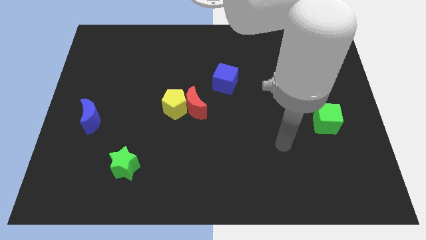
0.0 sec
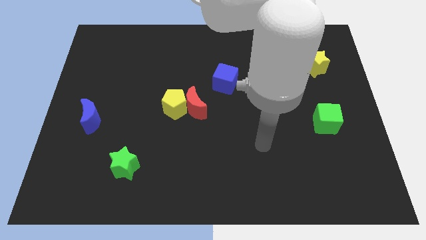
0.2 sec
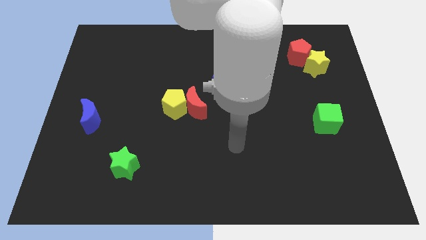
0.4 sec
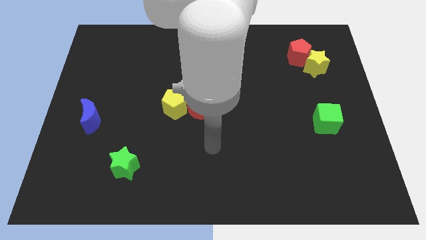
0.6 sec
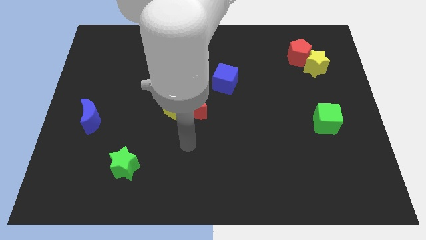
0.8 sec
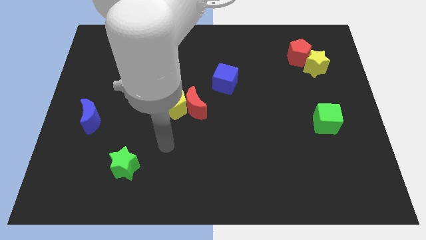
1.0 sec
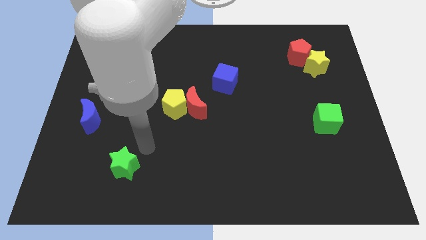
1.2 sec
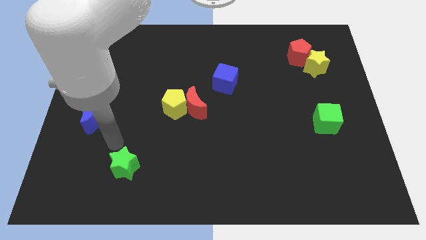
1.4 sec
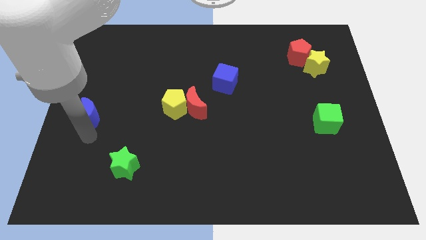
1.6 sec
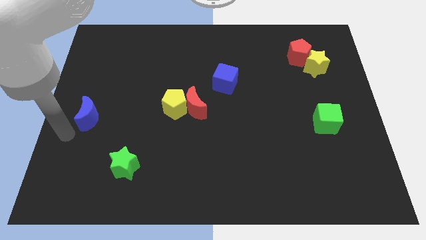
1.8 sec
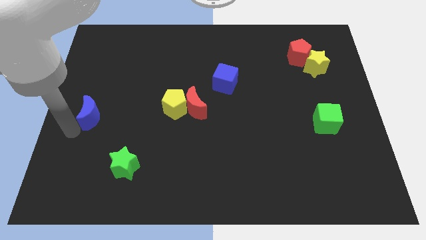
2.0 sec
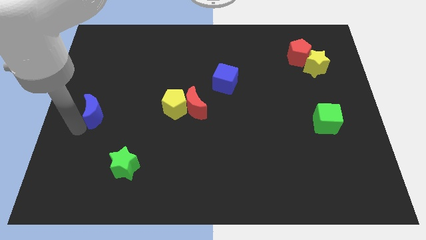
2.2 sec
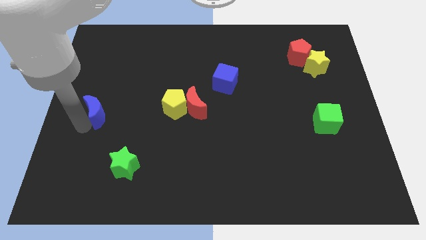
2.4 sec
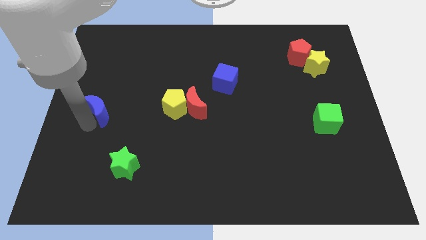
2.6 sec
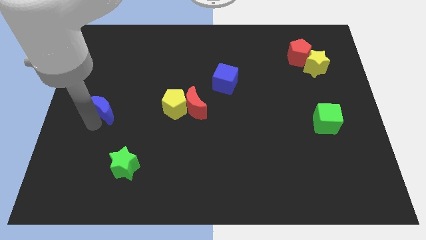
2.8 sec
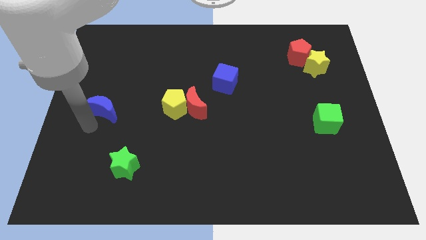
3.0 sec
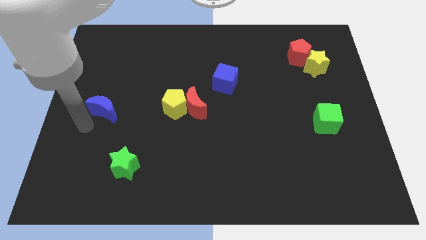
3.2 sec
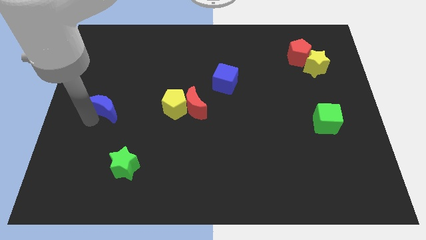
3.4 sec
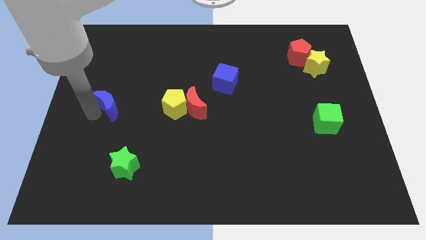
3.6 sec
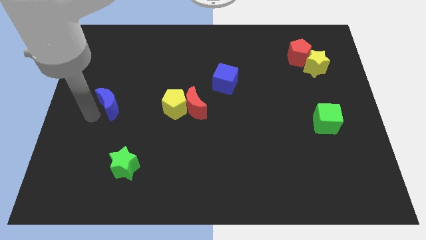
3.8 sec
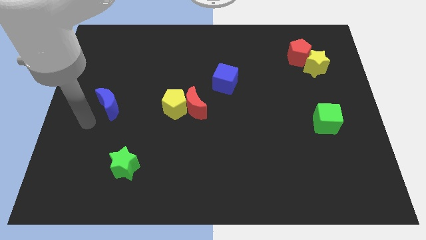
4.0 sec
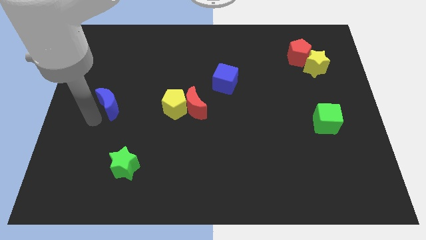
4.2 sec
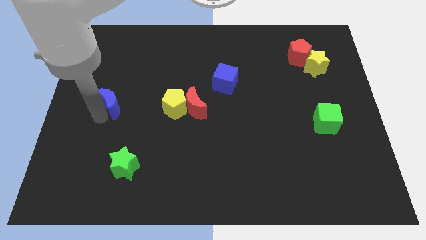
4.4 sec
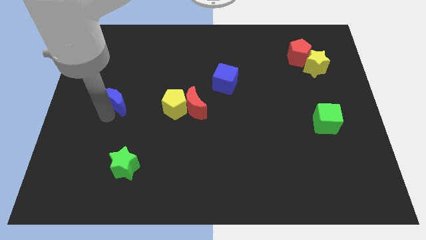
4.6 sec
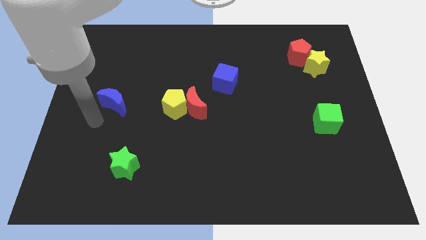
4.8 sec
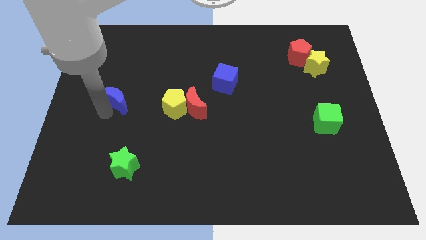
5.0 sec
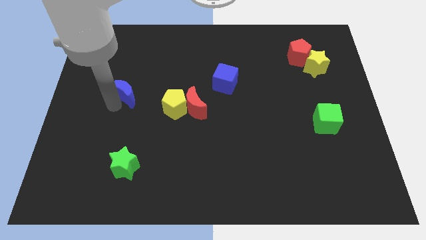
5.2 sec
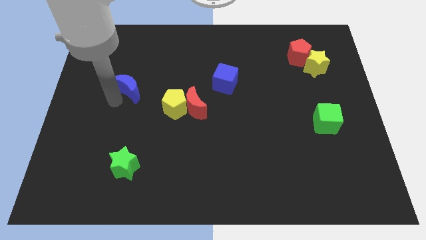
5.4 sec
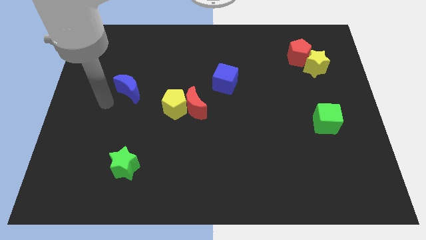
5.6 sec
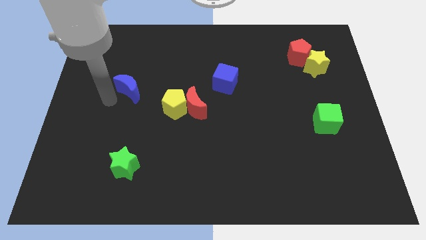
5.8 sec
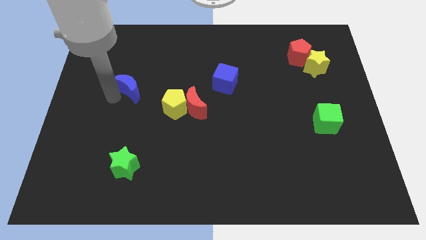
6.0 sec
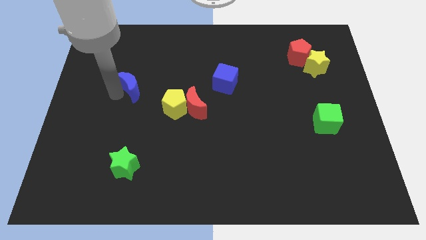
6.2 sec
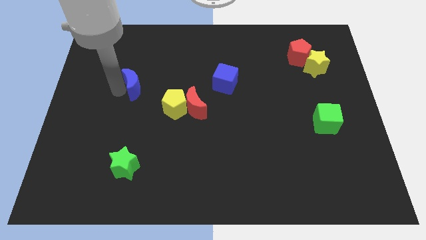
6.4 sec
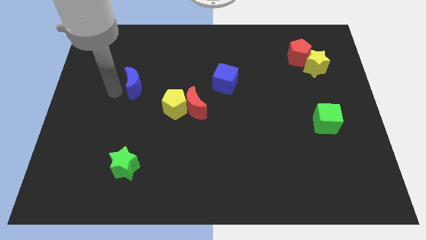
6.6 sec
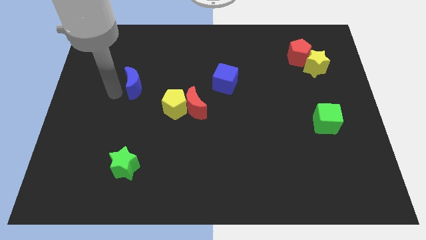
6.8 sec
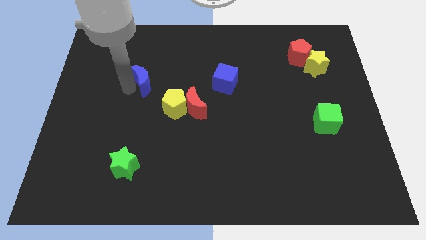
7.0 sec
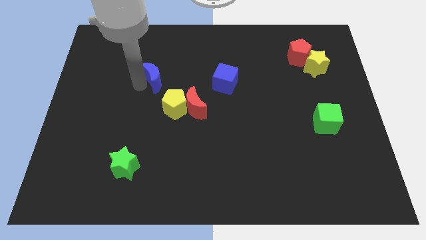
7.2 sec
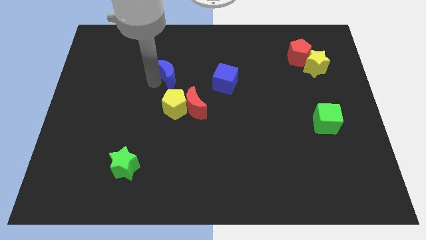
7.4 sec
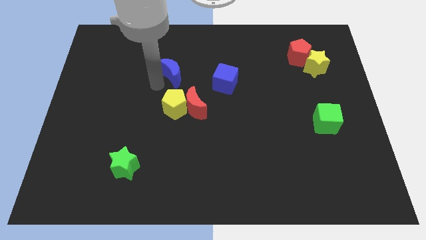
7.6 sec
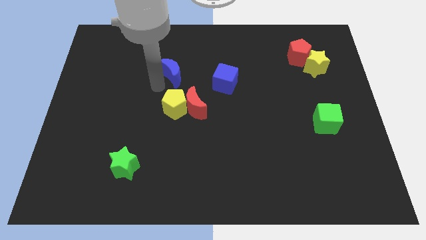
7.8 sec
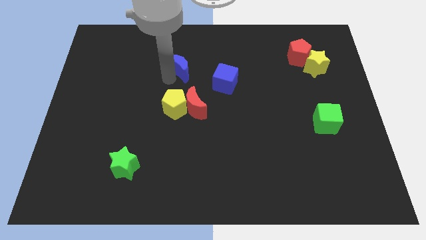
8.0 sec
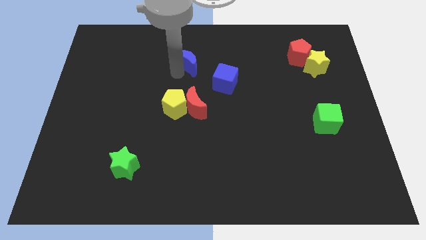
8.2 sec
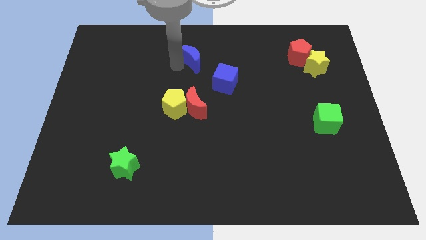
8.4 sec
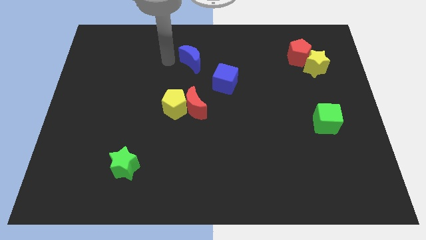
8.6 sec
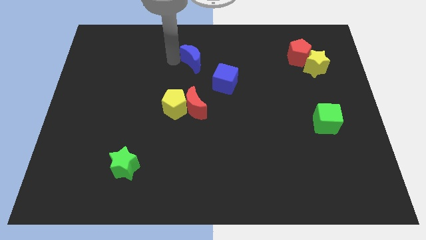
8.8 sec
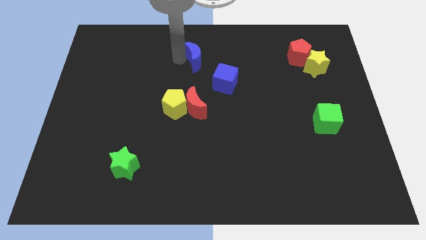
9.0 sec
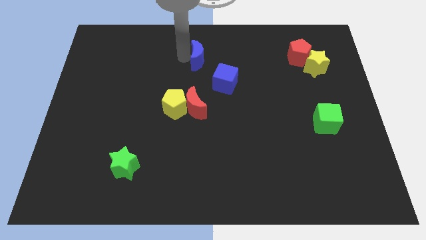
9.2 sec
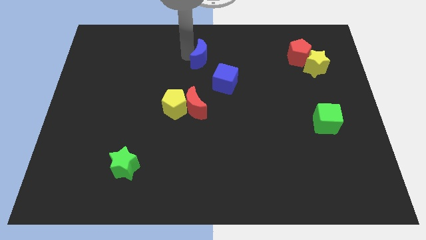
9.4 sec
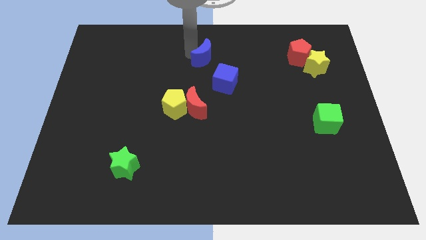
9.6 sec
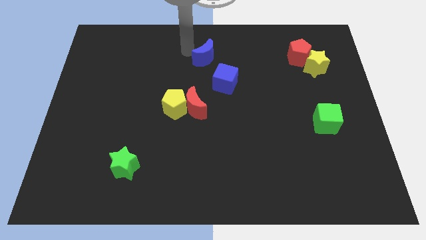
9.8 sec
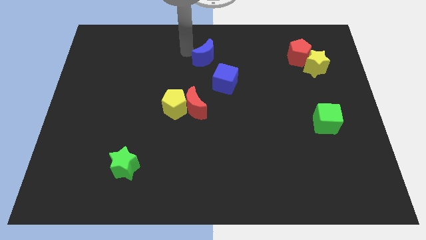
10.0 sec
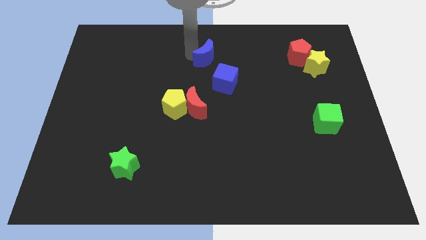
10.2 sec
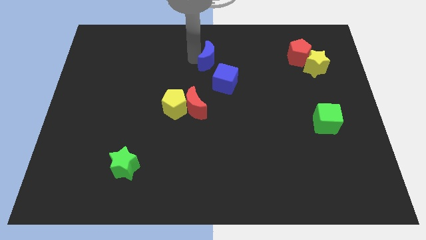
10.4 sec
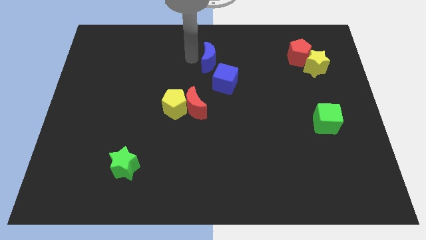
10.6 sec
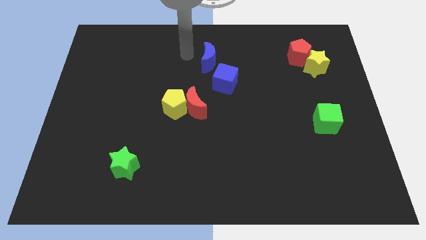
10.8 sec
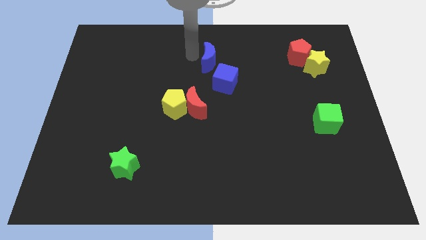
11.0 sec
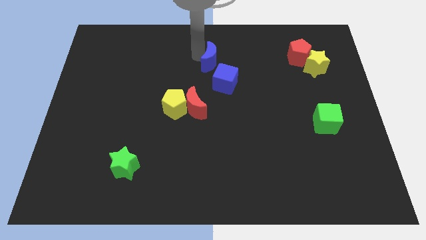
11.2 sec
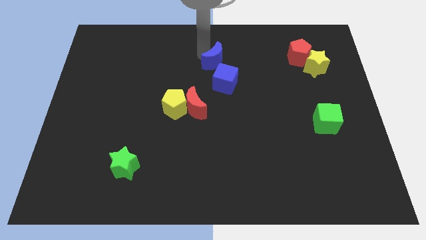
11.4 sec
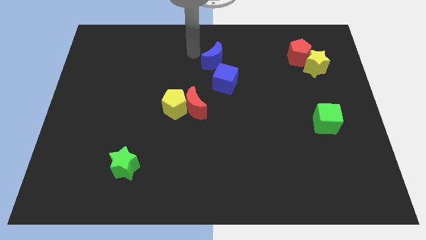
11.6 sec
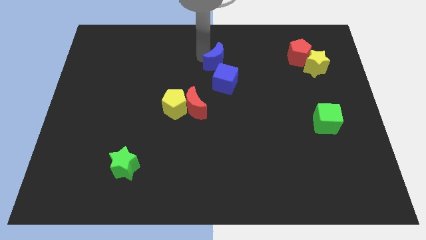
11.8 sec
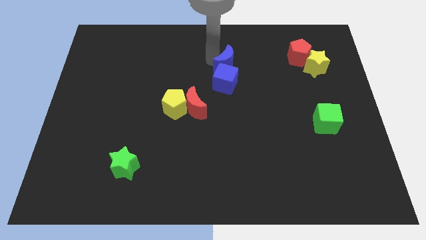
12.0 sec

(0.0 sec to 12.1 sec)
put the blue moon to the top right of the blue cube

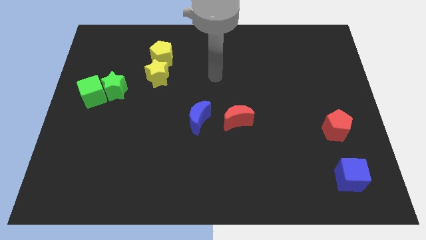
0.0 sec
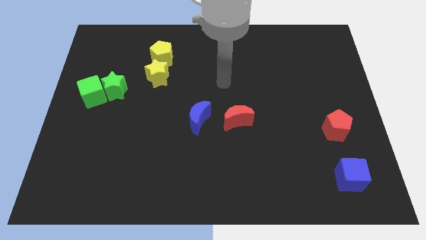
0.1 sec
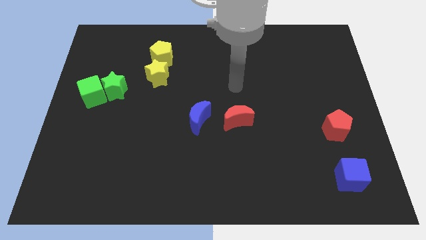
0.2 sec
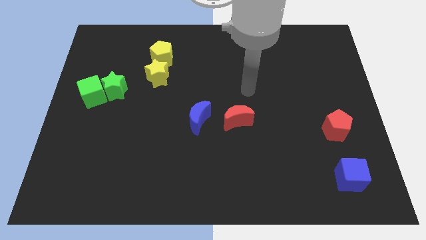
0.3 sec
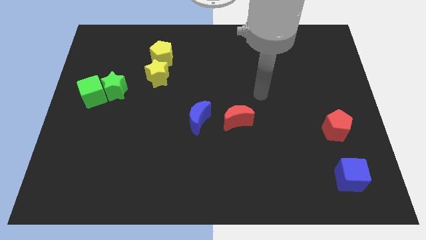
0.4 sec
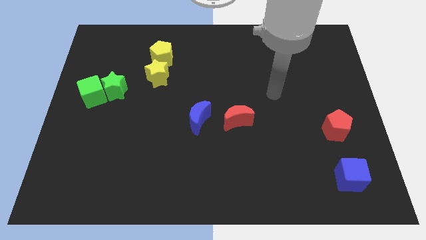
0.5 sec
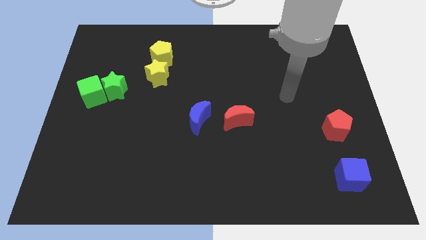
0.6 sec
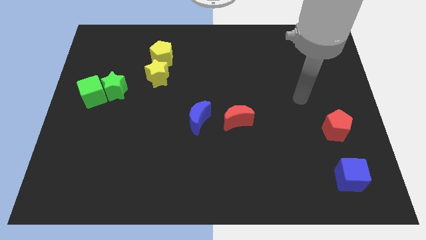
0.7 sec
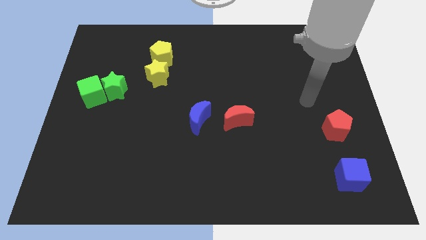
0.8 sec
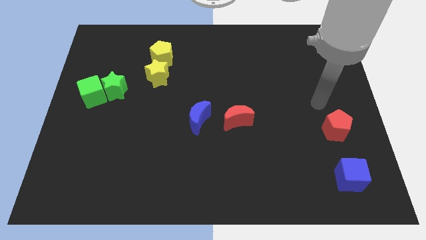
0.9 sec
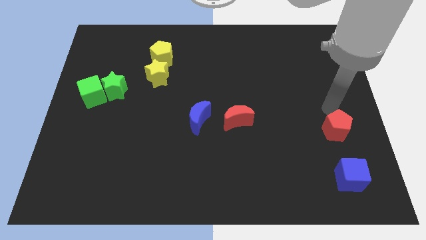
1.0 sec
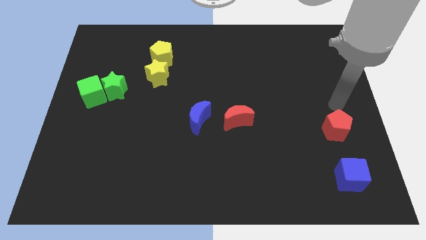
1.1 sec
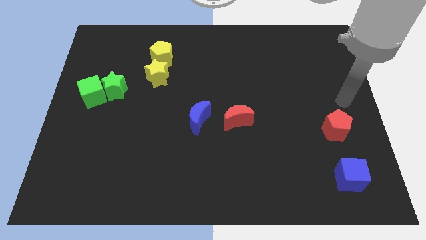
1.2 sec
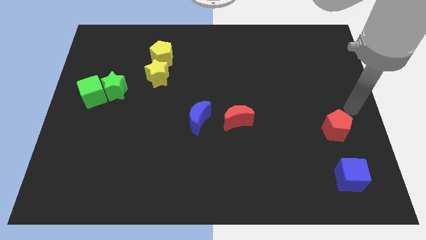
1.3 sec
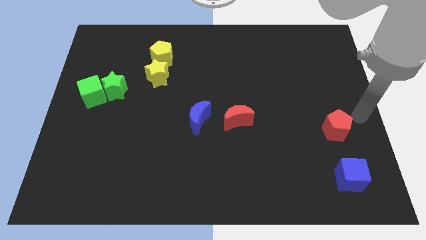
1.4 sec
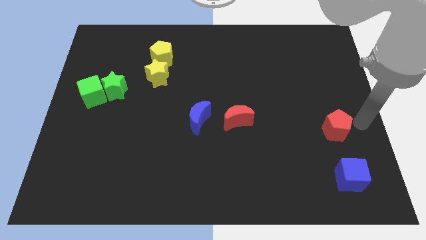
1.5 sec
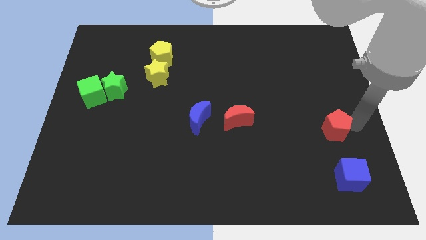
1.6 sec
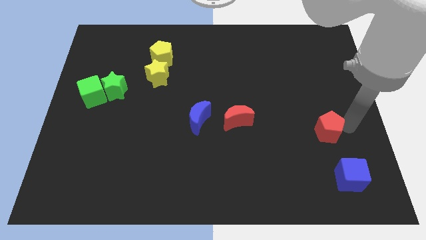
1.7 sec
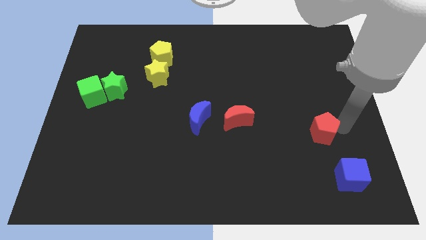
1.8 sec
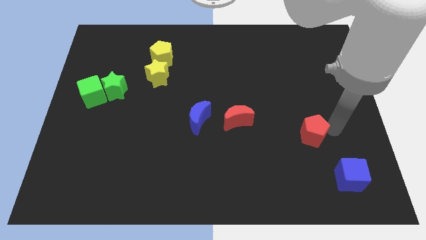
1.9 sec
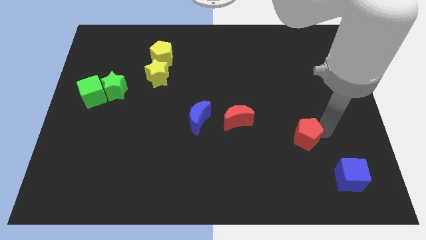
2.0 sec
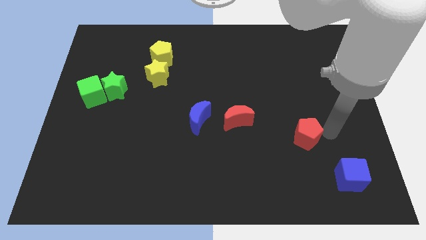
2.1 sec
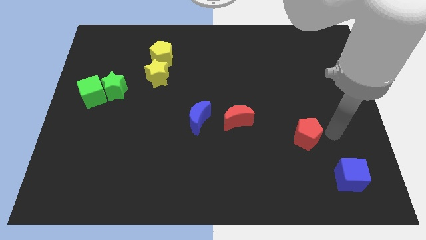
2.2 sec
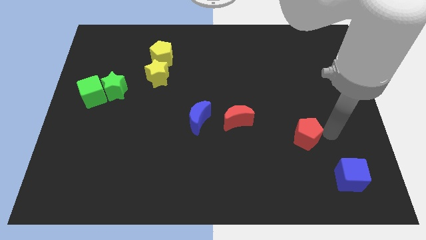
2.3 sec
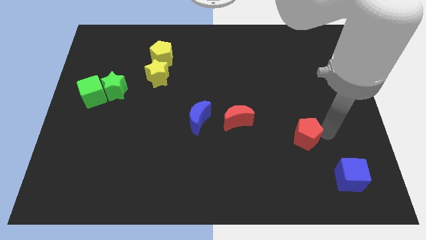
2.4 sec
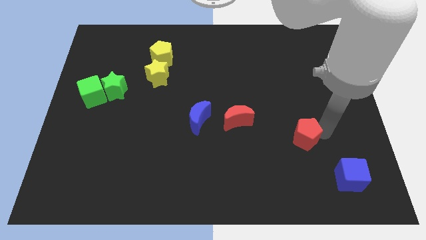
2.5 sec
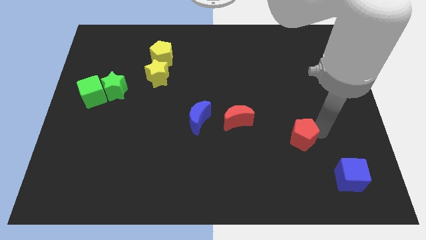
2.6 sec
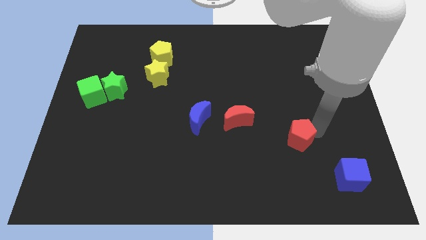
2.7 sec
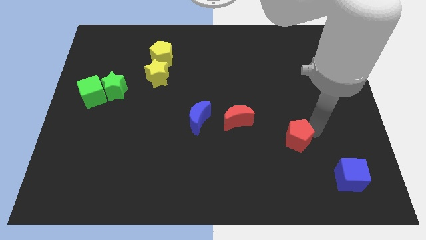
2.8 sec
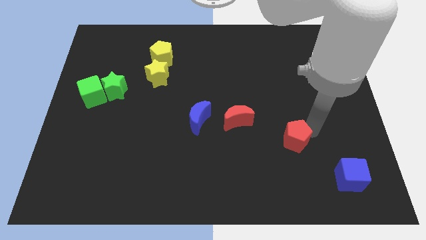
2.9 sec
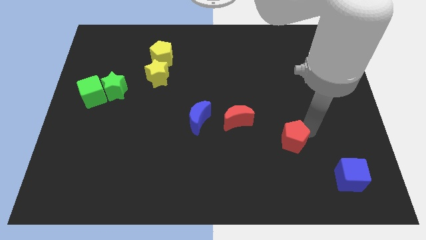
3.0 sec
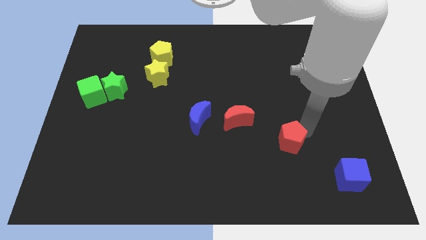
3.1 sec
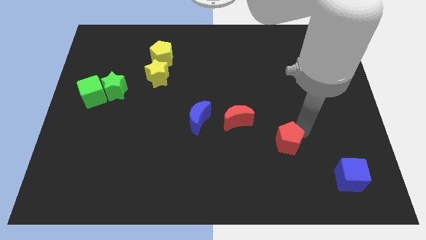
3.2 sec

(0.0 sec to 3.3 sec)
move the red pentagon to the bottom right side of the red moon
